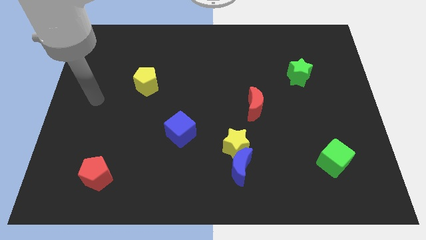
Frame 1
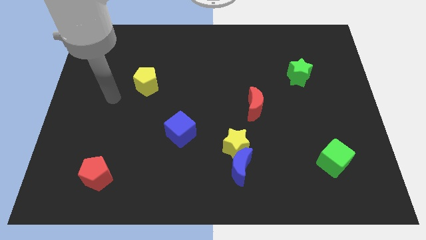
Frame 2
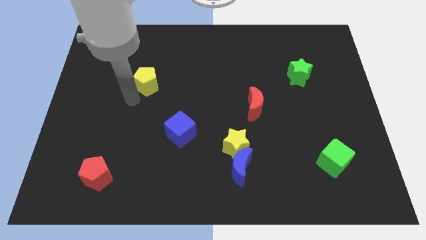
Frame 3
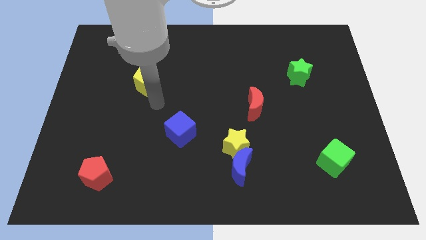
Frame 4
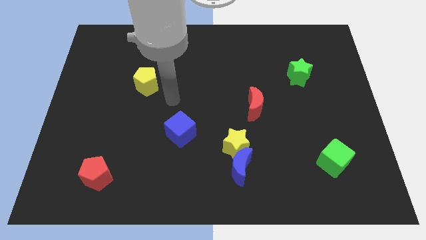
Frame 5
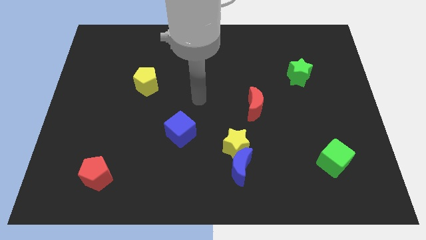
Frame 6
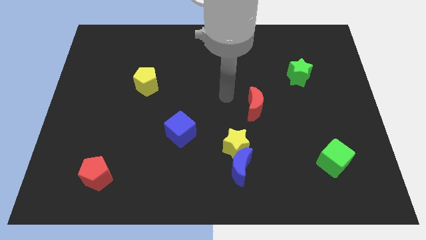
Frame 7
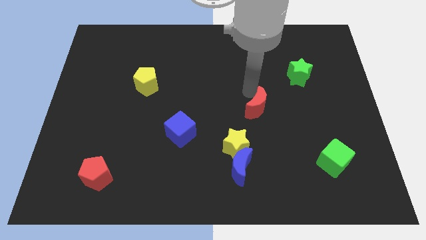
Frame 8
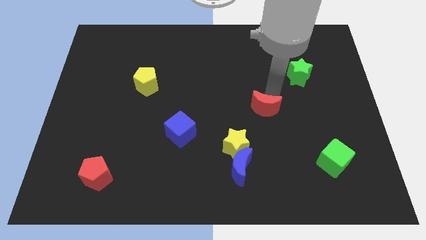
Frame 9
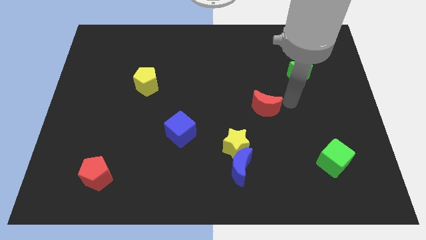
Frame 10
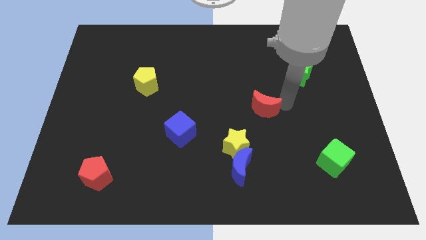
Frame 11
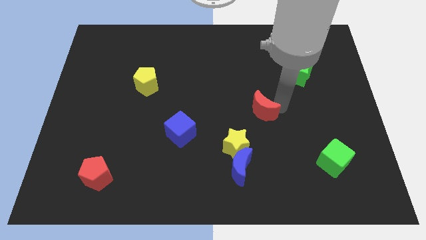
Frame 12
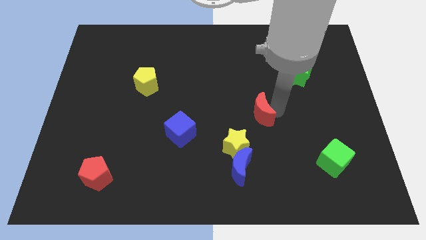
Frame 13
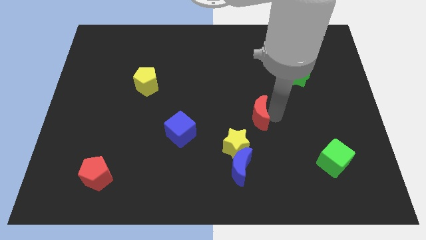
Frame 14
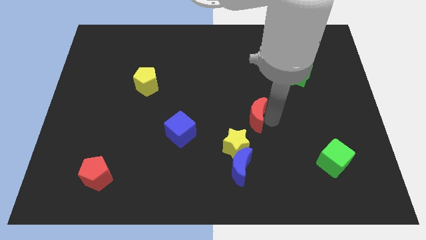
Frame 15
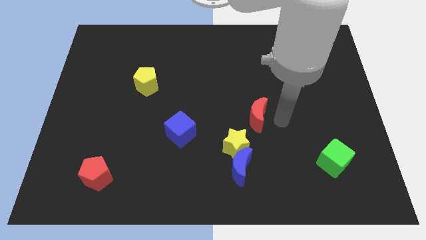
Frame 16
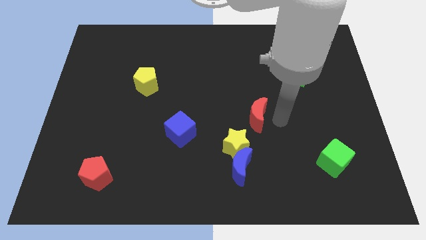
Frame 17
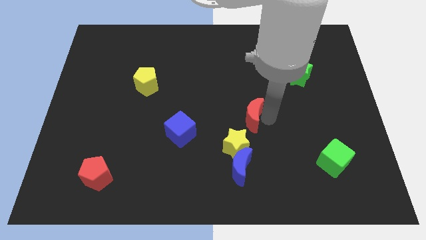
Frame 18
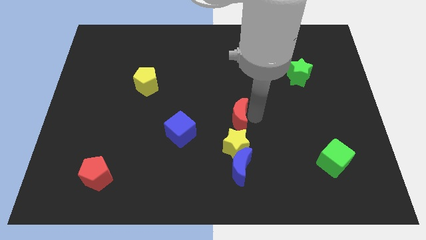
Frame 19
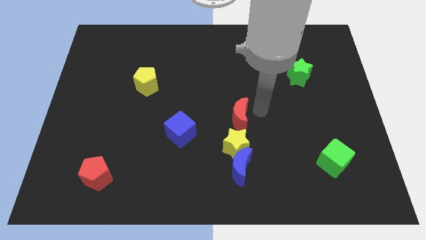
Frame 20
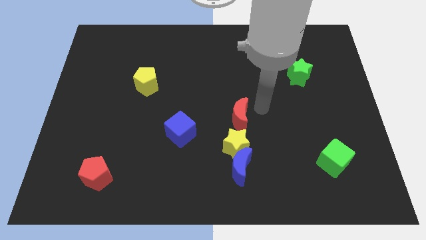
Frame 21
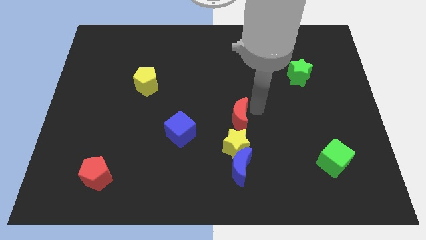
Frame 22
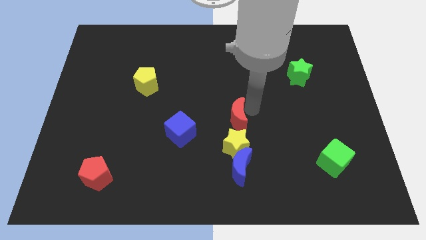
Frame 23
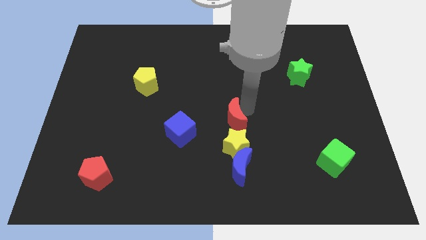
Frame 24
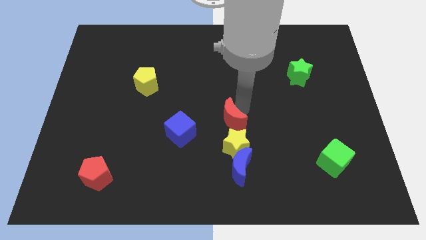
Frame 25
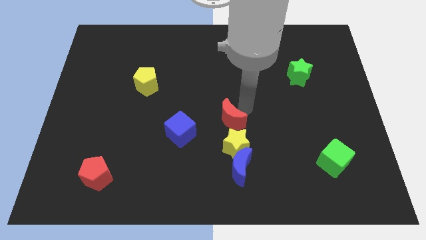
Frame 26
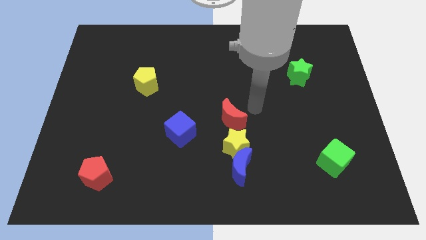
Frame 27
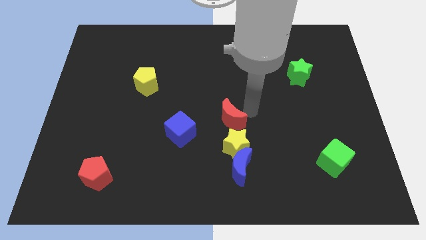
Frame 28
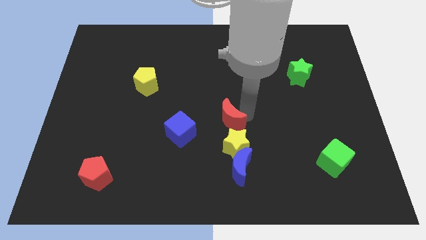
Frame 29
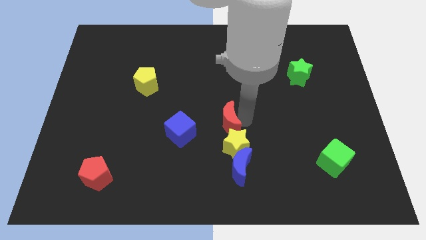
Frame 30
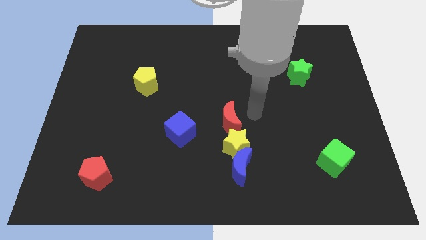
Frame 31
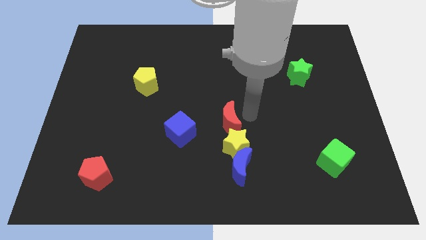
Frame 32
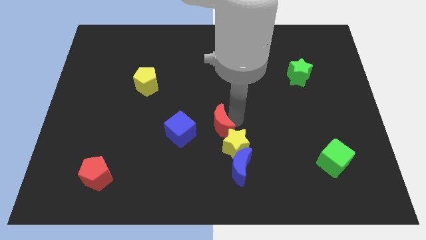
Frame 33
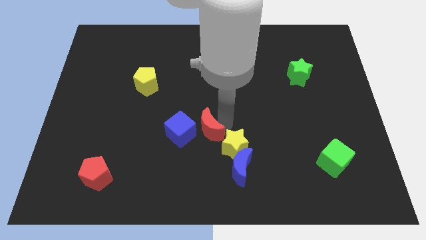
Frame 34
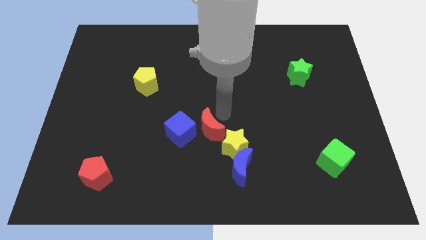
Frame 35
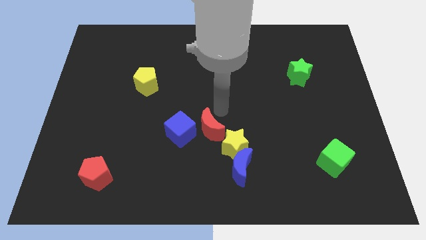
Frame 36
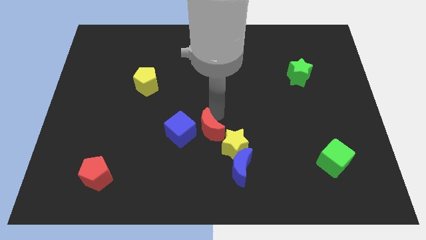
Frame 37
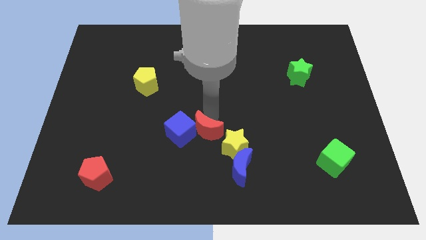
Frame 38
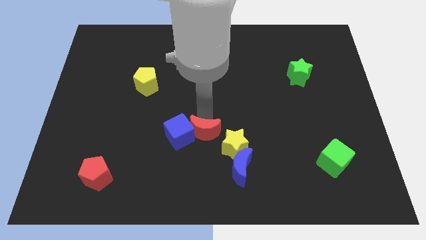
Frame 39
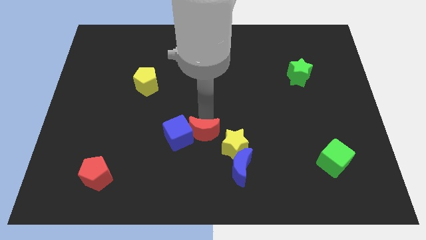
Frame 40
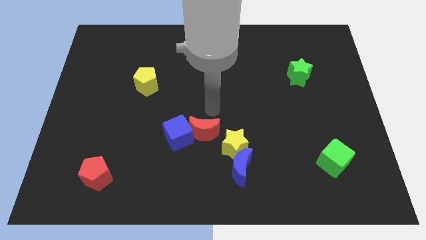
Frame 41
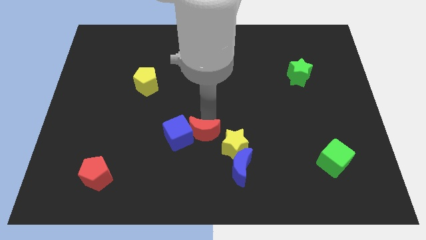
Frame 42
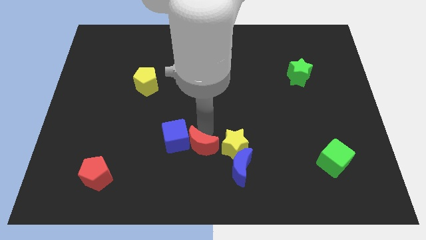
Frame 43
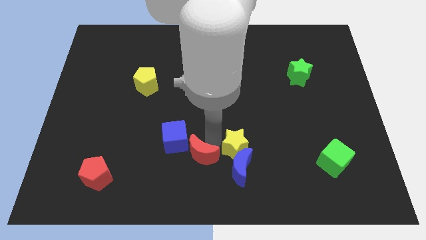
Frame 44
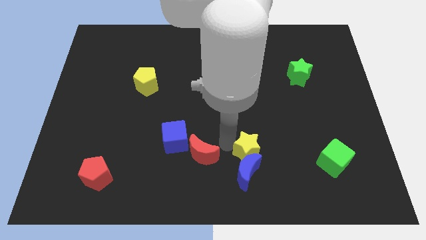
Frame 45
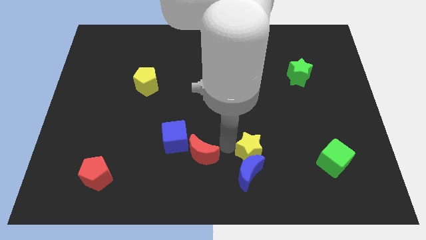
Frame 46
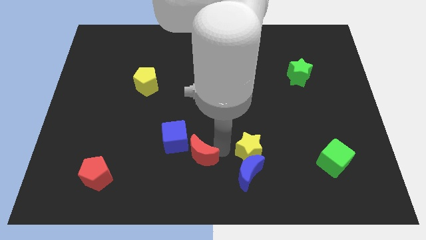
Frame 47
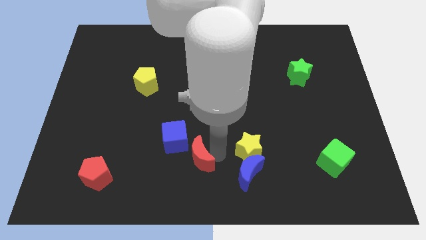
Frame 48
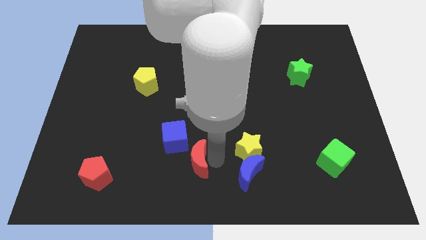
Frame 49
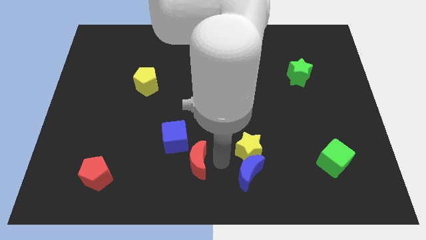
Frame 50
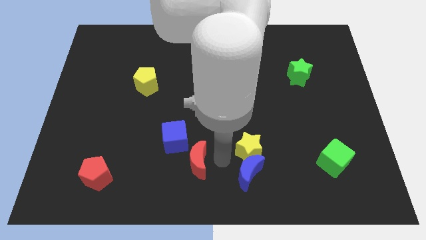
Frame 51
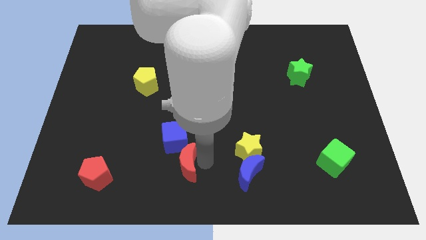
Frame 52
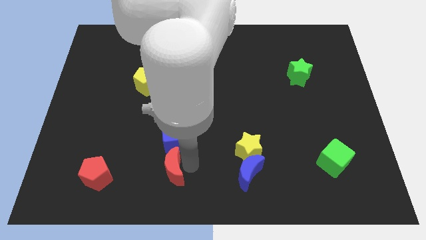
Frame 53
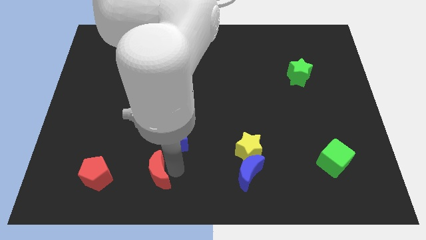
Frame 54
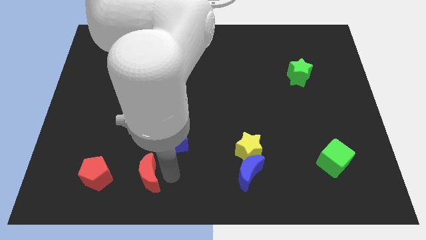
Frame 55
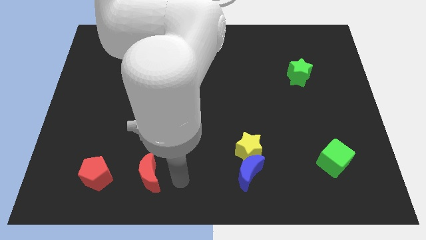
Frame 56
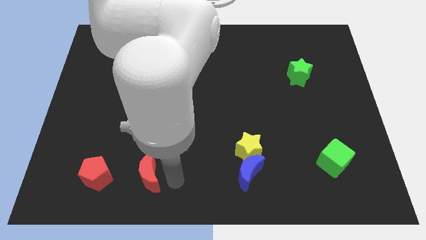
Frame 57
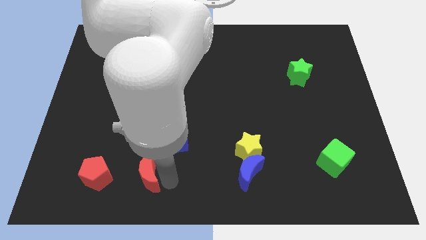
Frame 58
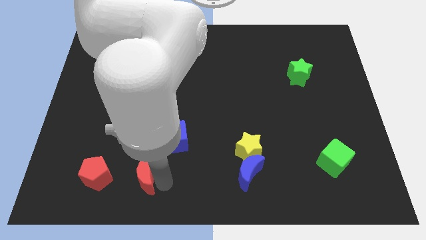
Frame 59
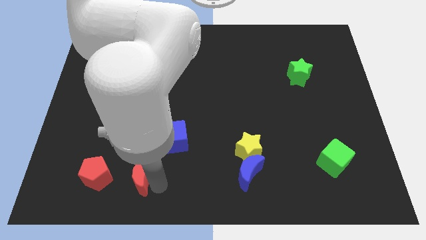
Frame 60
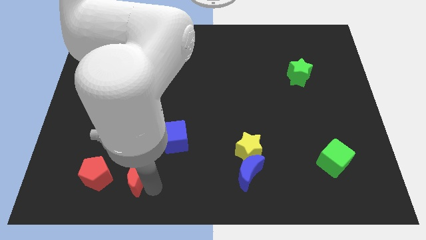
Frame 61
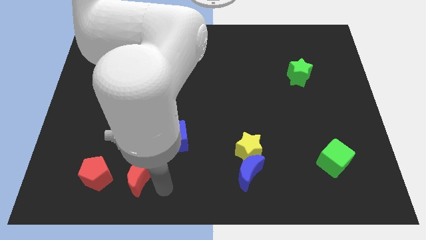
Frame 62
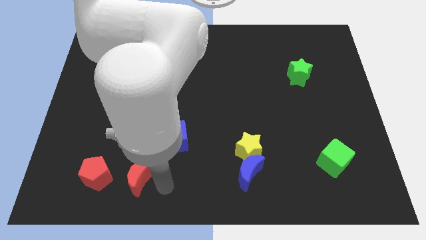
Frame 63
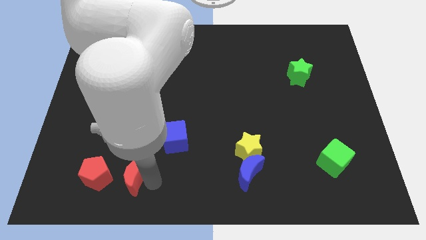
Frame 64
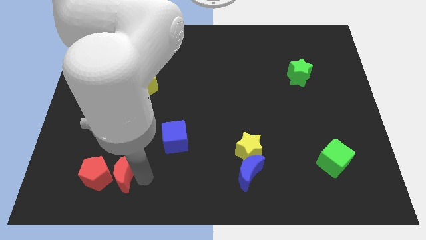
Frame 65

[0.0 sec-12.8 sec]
put the red moon to the red pentagon

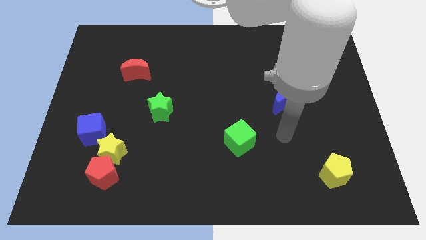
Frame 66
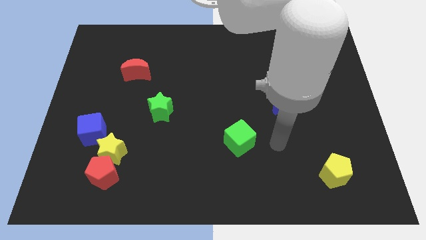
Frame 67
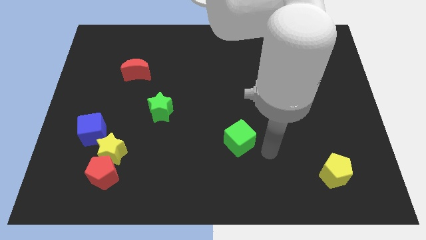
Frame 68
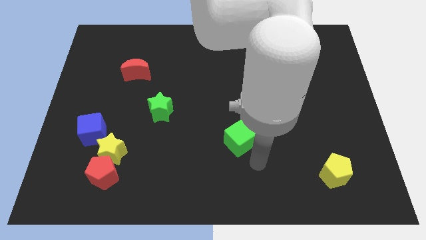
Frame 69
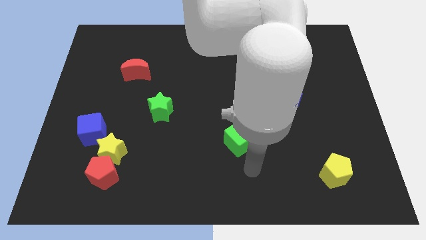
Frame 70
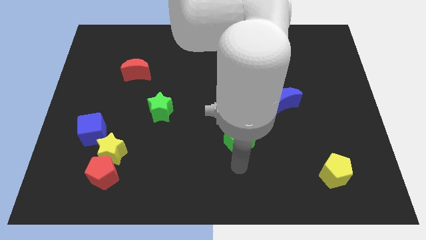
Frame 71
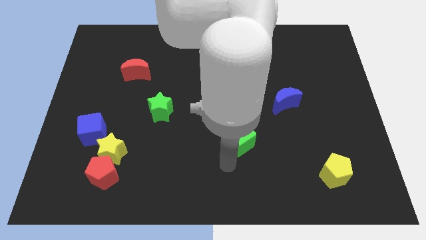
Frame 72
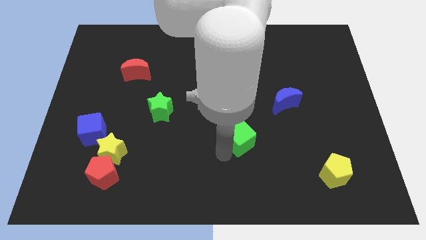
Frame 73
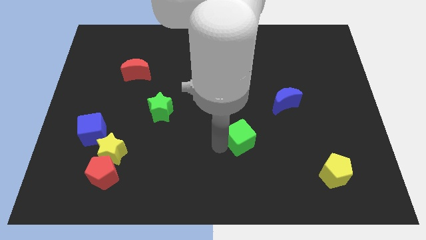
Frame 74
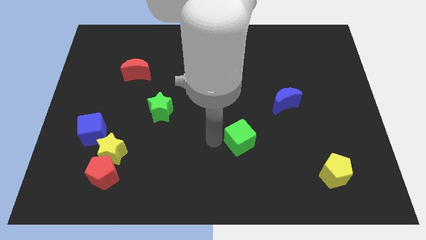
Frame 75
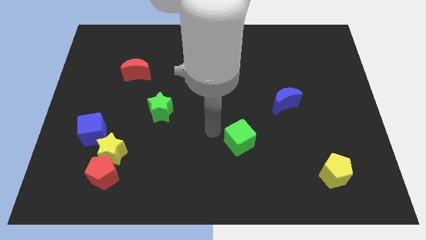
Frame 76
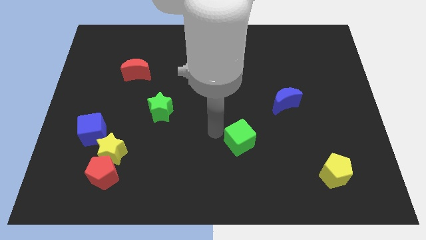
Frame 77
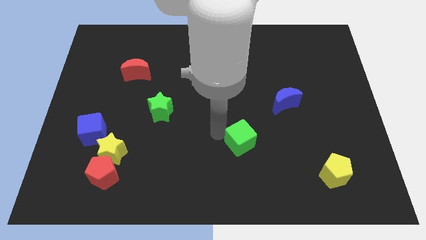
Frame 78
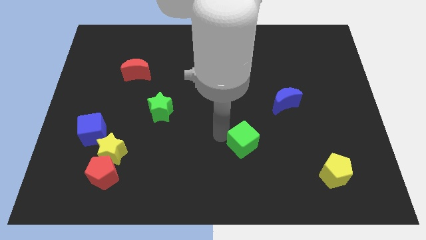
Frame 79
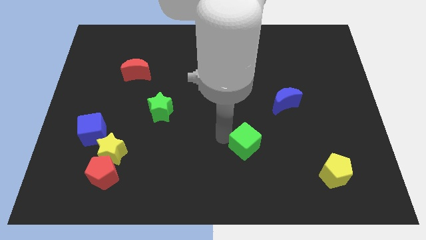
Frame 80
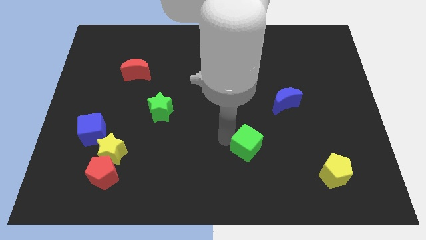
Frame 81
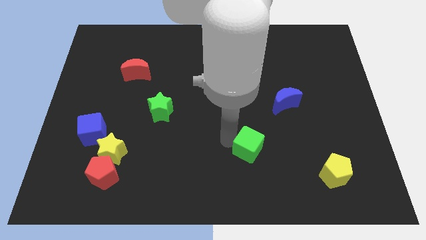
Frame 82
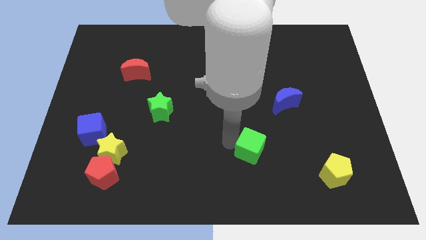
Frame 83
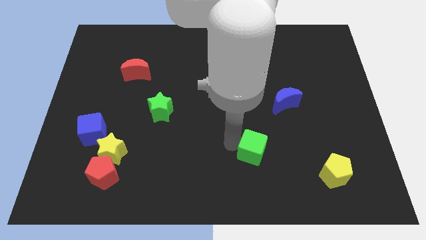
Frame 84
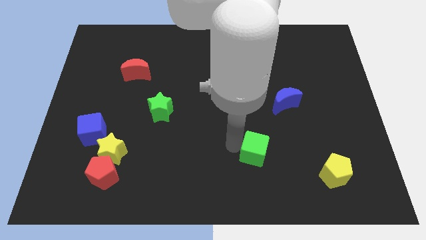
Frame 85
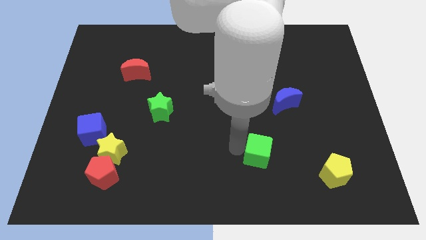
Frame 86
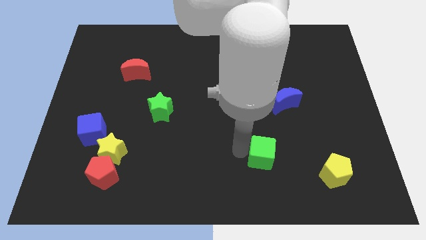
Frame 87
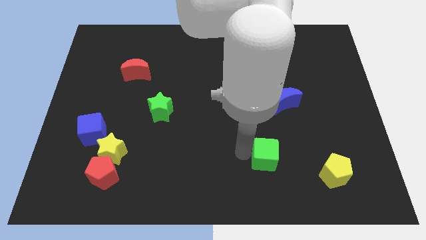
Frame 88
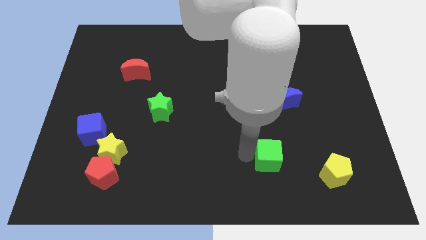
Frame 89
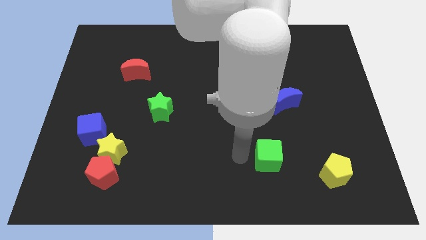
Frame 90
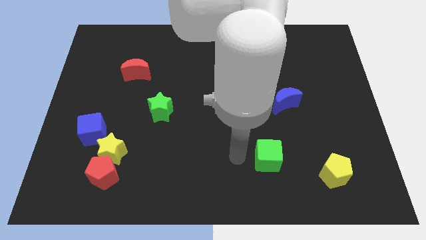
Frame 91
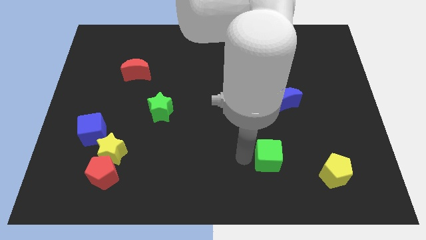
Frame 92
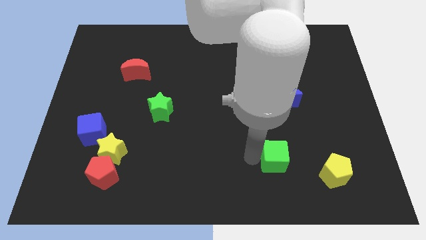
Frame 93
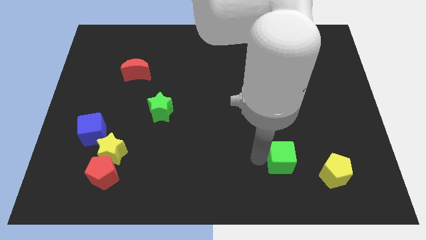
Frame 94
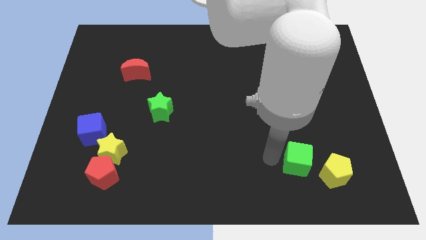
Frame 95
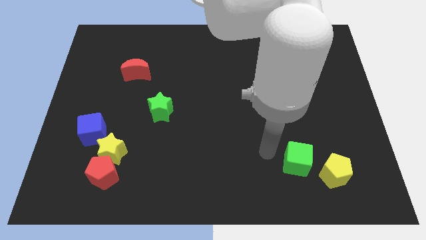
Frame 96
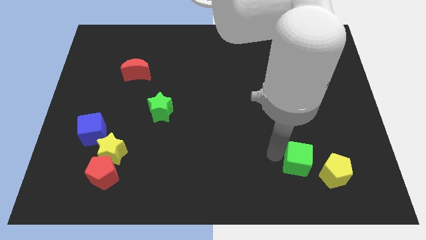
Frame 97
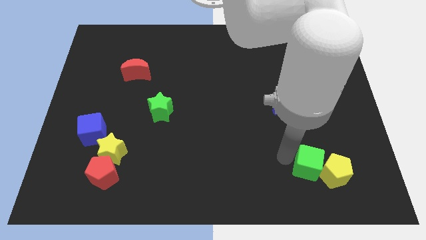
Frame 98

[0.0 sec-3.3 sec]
slide the green cube towards the yellow pentagon
